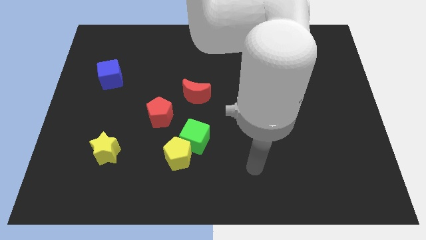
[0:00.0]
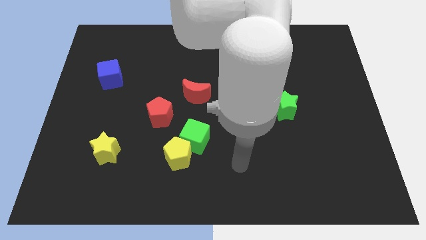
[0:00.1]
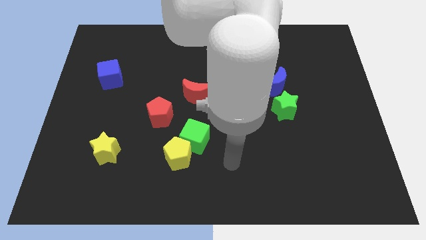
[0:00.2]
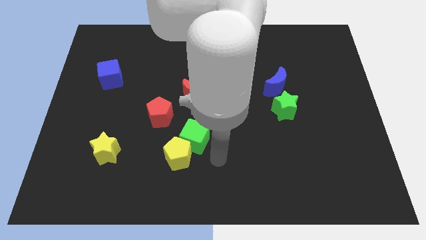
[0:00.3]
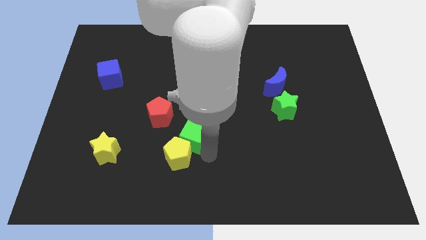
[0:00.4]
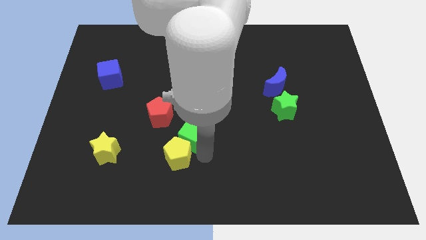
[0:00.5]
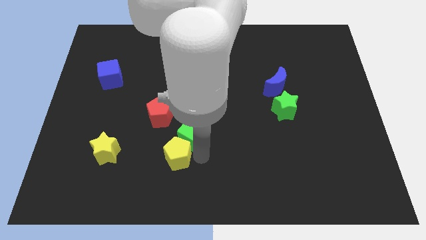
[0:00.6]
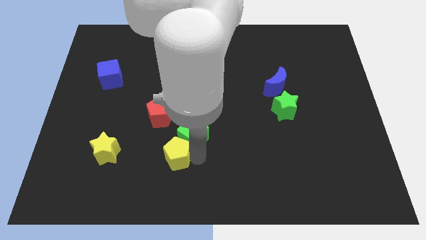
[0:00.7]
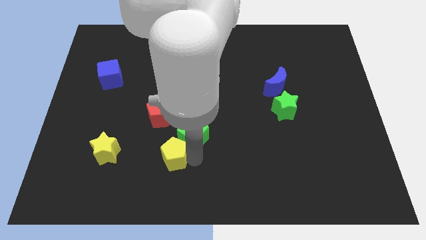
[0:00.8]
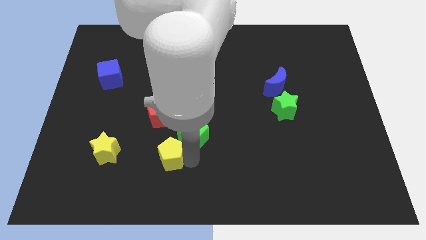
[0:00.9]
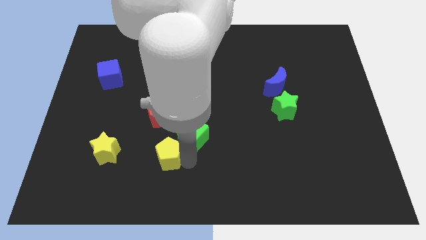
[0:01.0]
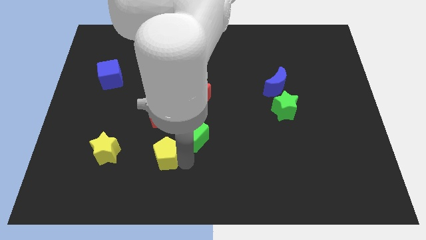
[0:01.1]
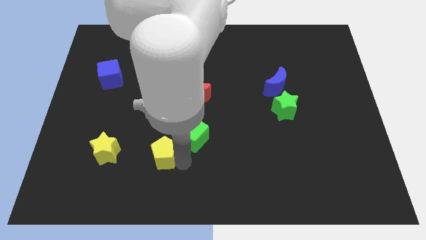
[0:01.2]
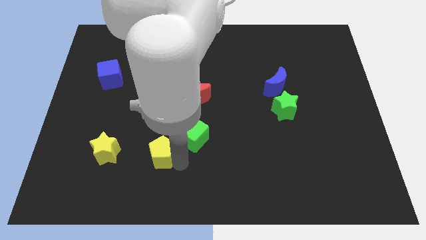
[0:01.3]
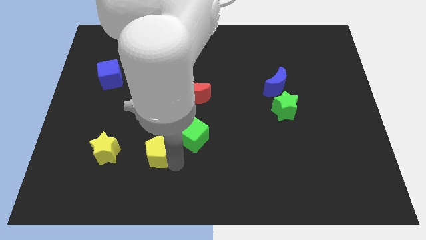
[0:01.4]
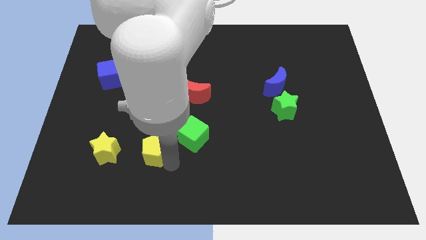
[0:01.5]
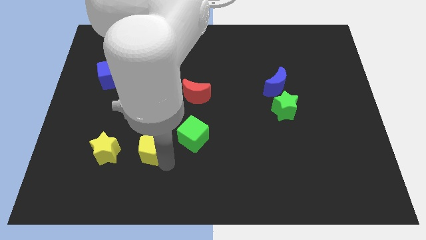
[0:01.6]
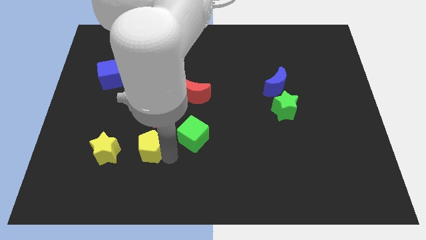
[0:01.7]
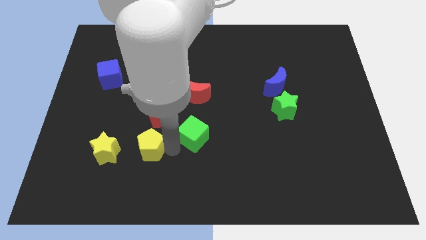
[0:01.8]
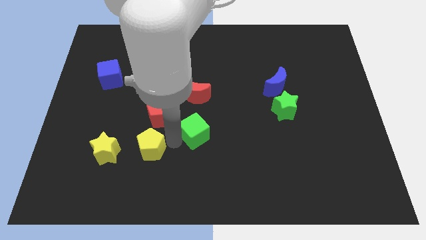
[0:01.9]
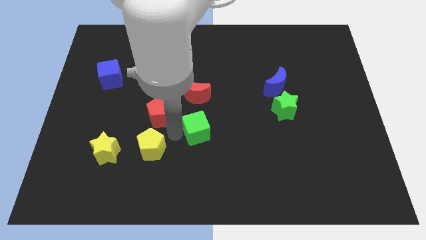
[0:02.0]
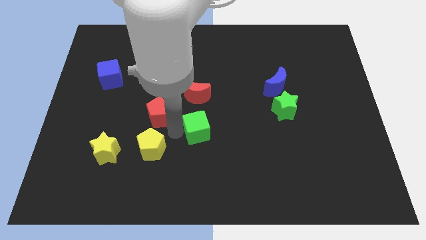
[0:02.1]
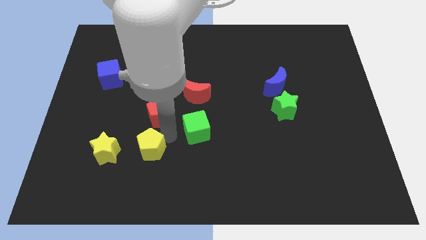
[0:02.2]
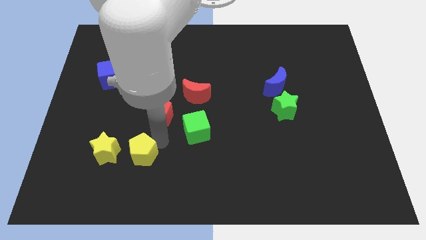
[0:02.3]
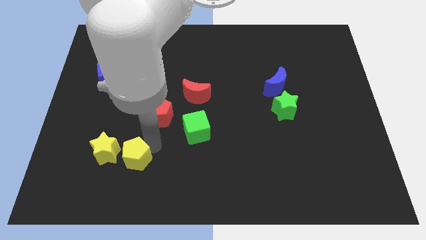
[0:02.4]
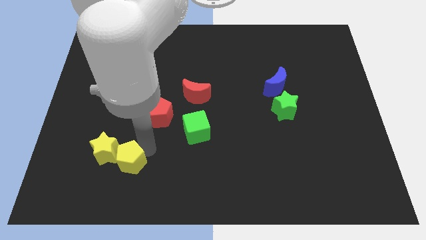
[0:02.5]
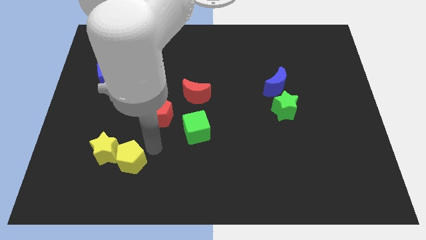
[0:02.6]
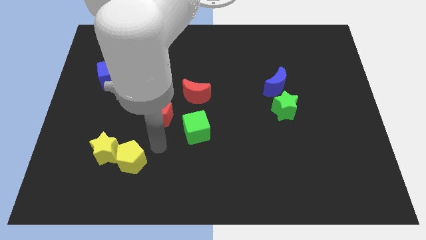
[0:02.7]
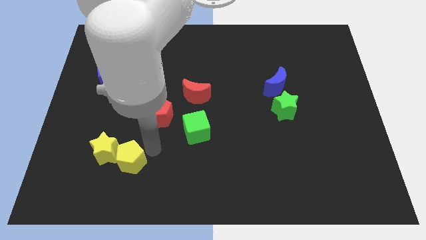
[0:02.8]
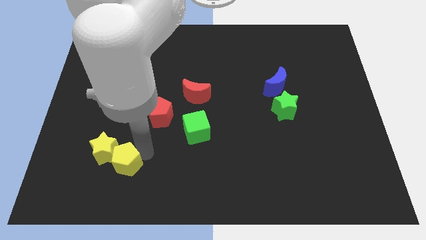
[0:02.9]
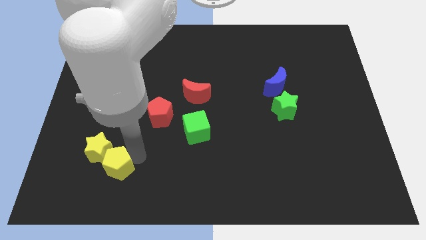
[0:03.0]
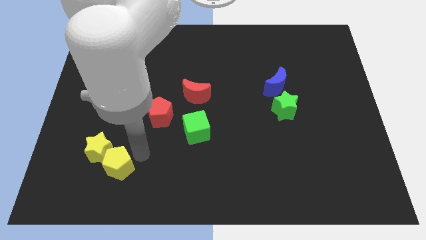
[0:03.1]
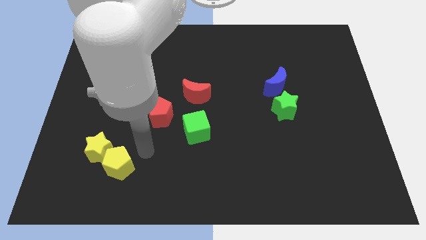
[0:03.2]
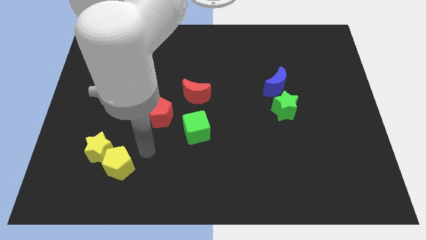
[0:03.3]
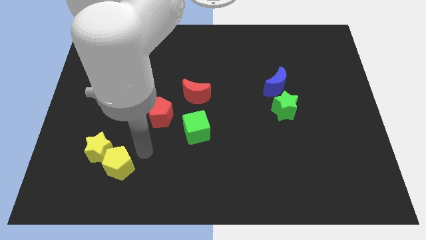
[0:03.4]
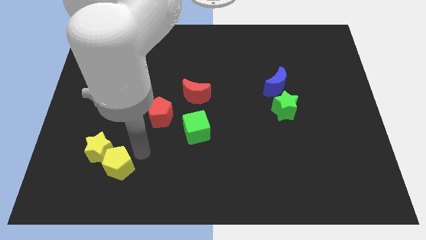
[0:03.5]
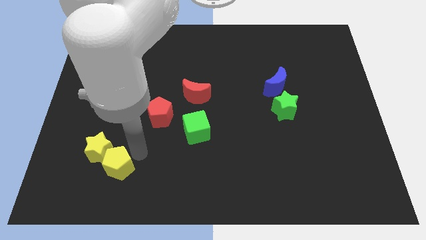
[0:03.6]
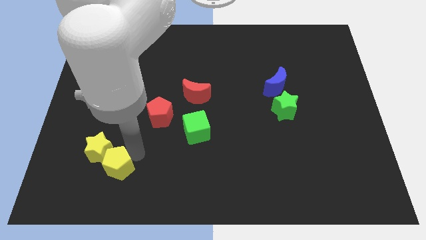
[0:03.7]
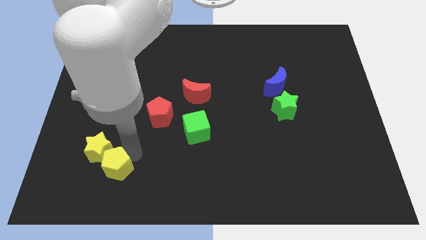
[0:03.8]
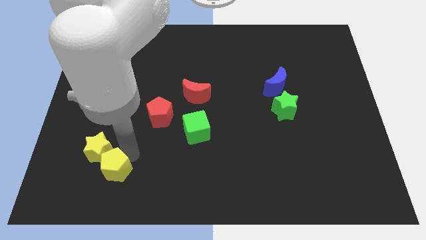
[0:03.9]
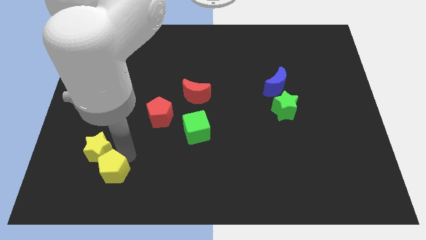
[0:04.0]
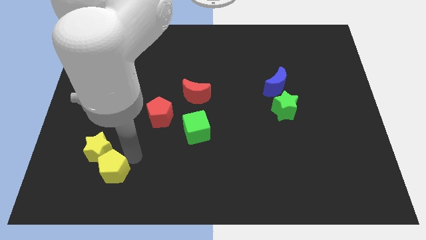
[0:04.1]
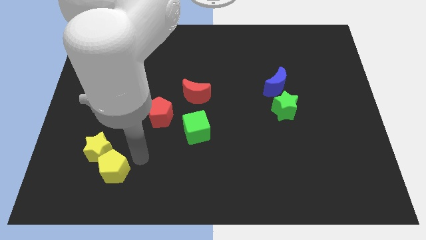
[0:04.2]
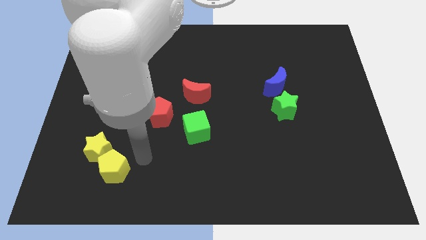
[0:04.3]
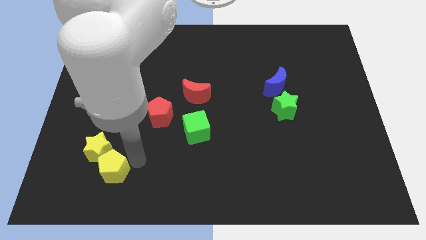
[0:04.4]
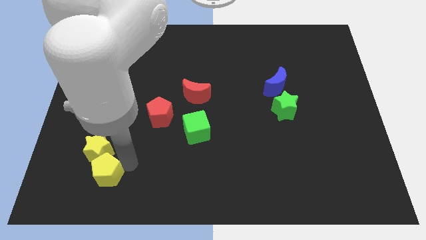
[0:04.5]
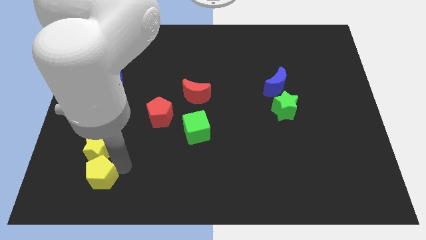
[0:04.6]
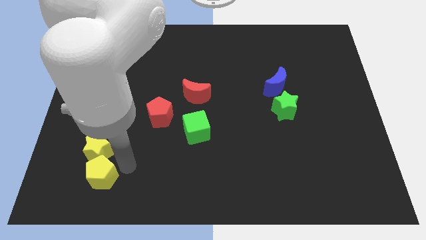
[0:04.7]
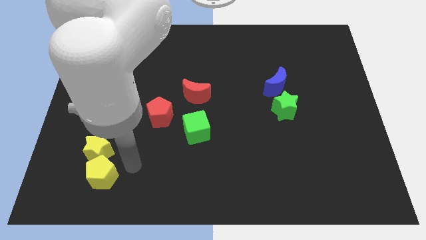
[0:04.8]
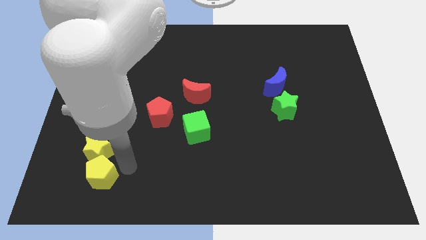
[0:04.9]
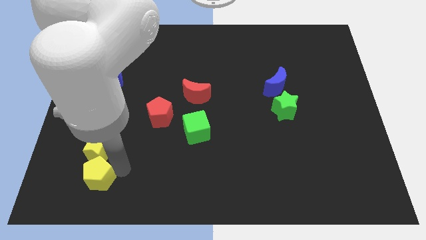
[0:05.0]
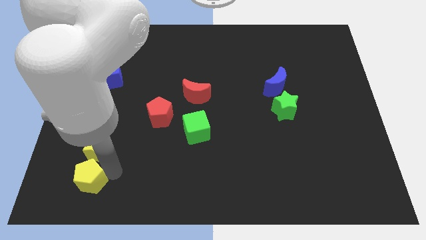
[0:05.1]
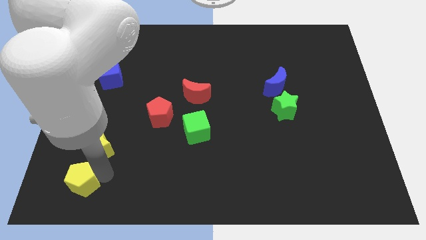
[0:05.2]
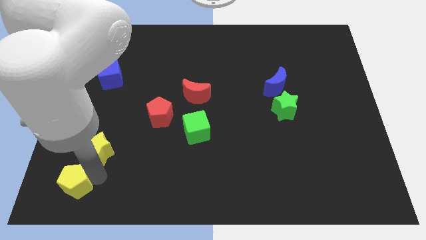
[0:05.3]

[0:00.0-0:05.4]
slide the yellow pentagon to the bottom left
